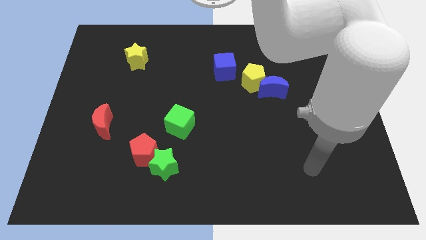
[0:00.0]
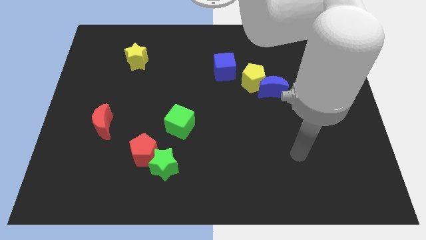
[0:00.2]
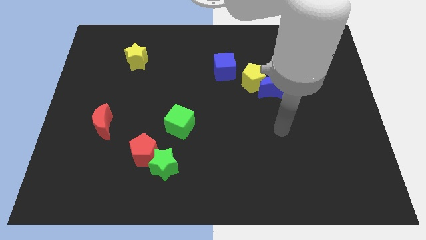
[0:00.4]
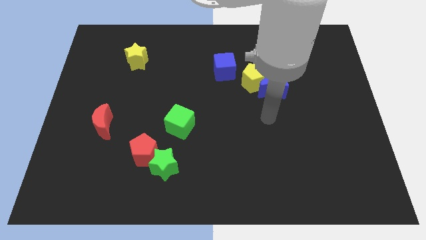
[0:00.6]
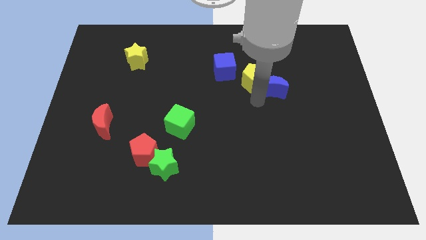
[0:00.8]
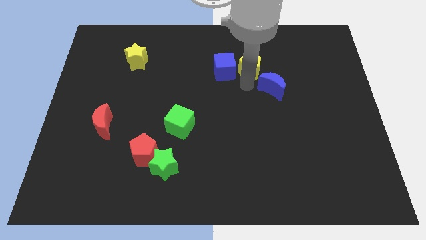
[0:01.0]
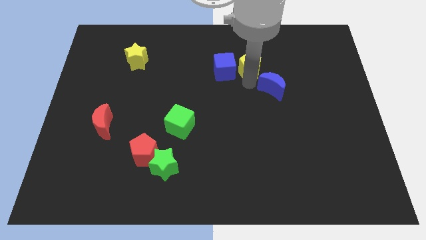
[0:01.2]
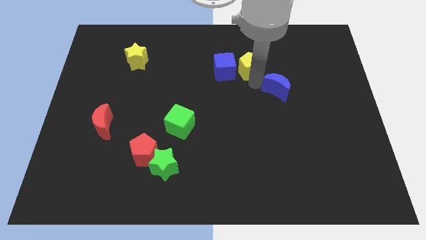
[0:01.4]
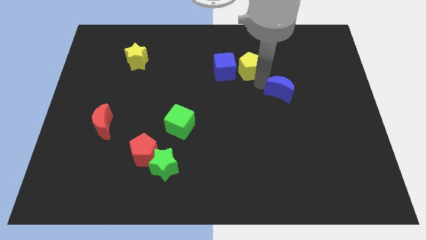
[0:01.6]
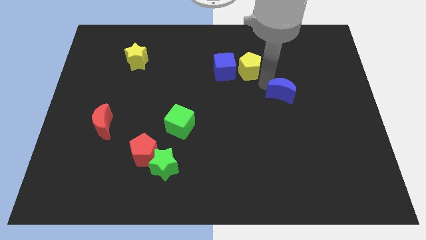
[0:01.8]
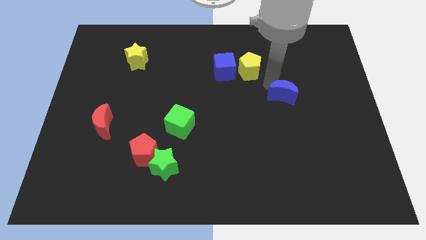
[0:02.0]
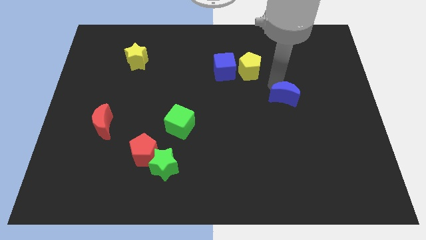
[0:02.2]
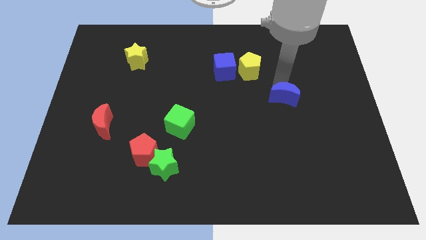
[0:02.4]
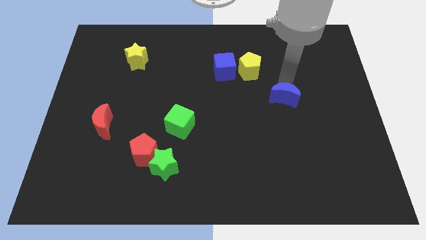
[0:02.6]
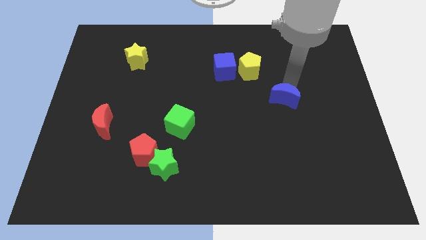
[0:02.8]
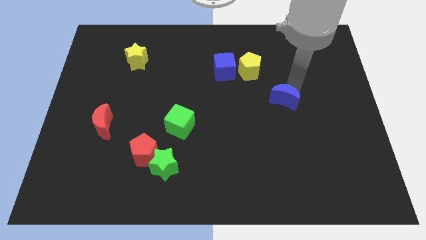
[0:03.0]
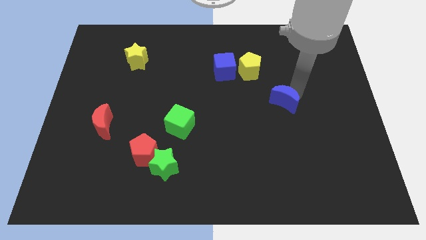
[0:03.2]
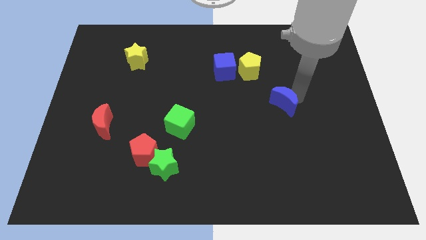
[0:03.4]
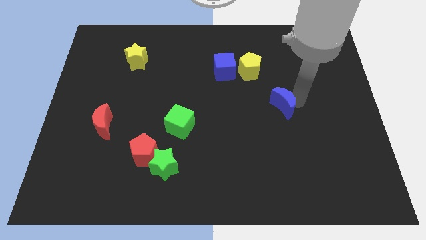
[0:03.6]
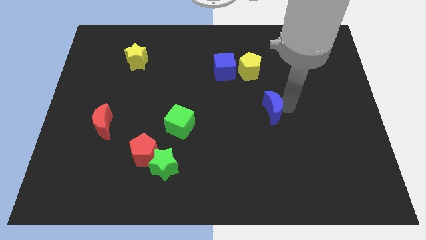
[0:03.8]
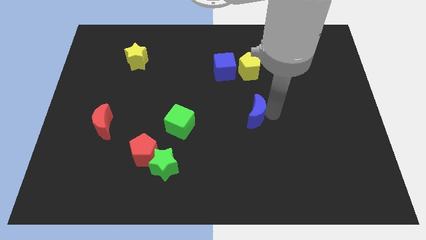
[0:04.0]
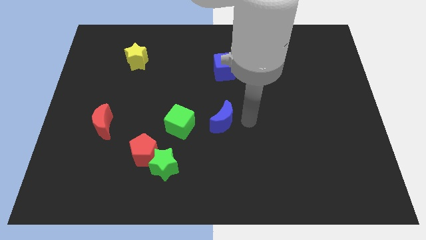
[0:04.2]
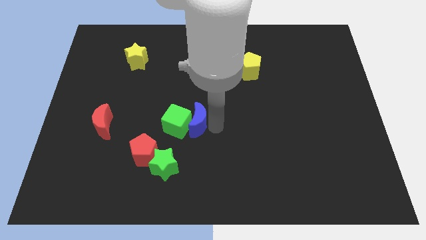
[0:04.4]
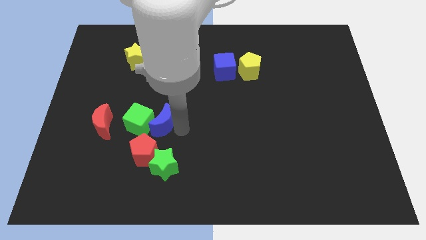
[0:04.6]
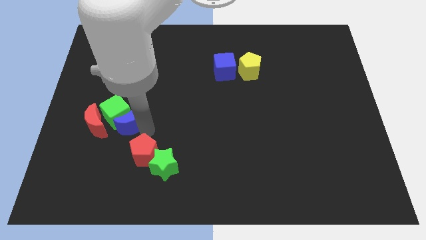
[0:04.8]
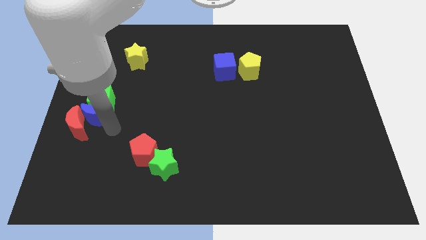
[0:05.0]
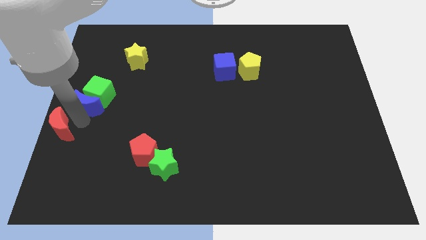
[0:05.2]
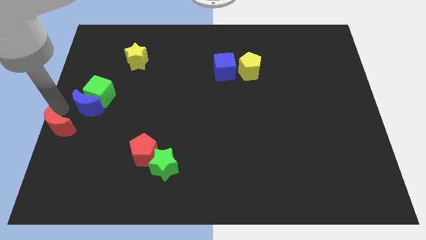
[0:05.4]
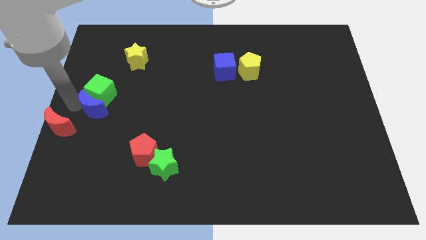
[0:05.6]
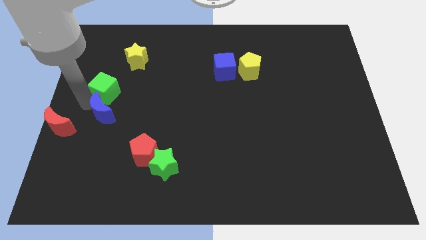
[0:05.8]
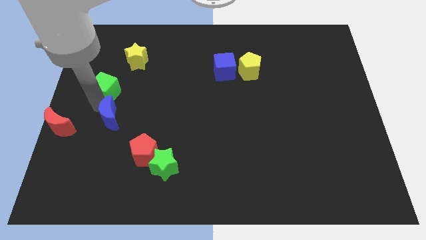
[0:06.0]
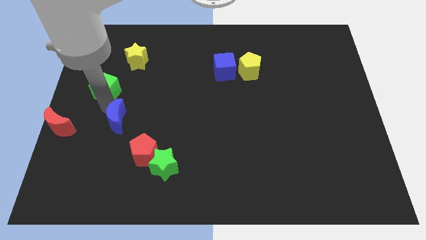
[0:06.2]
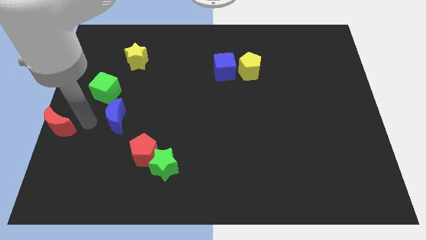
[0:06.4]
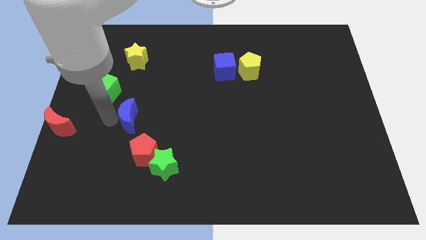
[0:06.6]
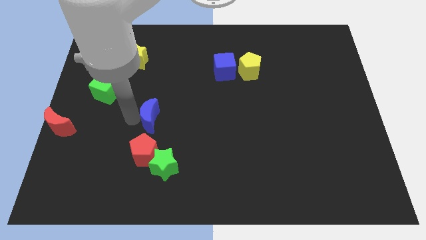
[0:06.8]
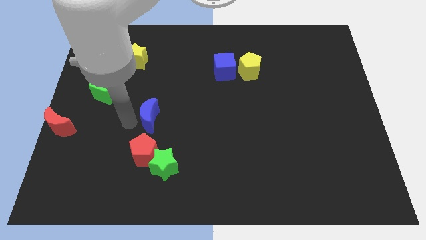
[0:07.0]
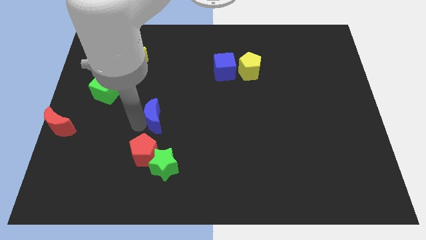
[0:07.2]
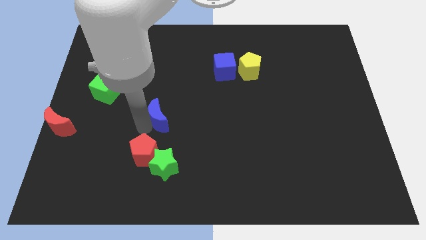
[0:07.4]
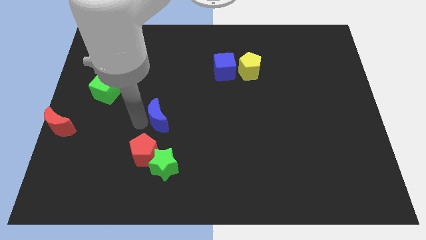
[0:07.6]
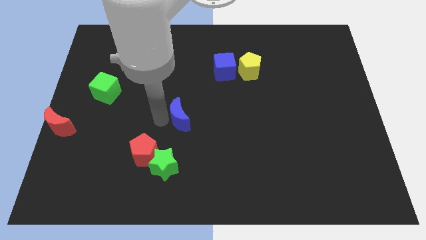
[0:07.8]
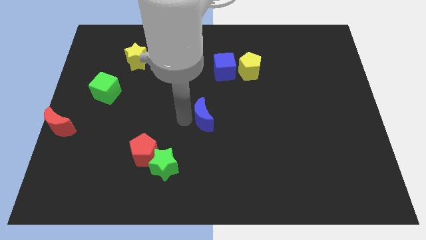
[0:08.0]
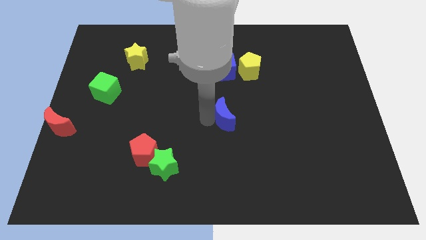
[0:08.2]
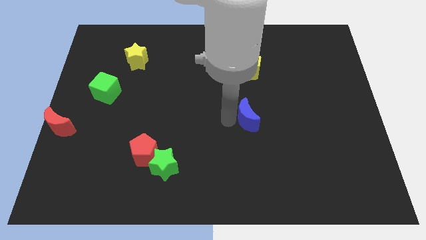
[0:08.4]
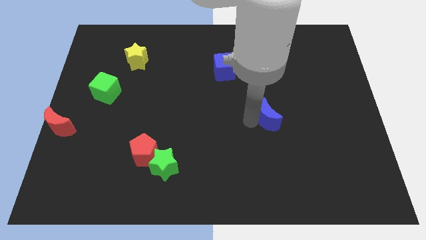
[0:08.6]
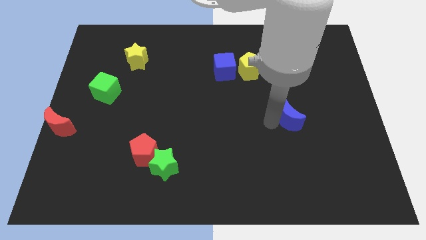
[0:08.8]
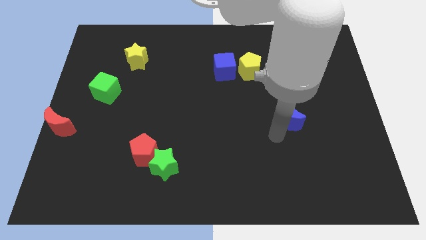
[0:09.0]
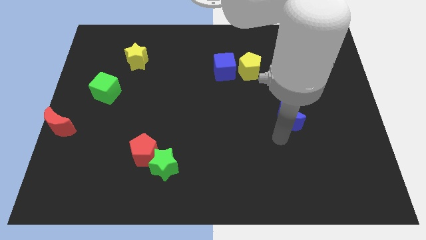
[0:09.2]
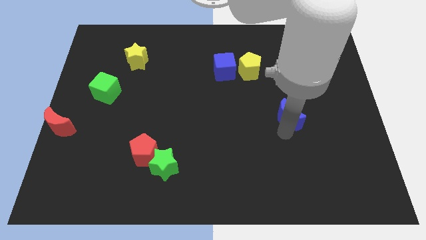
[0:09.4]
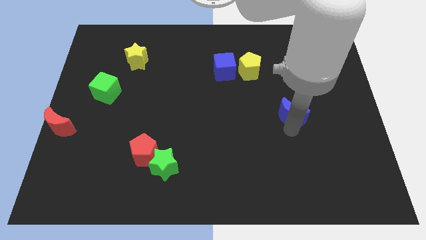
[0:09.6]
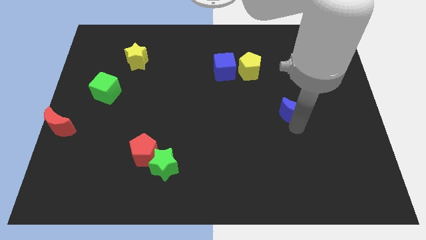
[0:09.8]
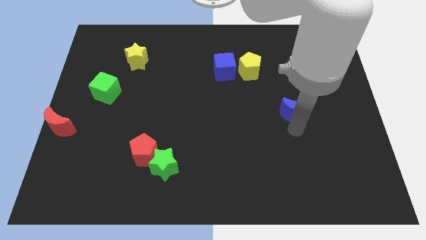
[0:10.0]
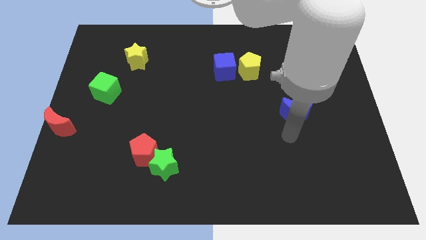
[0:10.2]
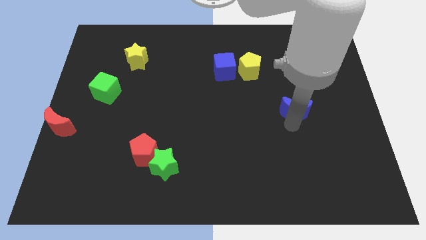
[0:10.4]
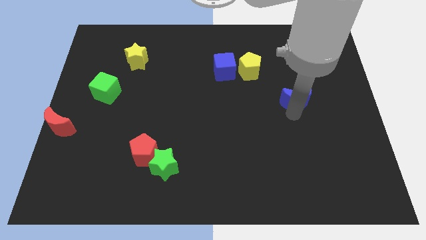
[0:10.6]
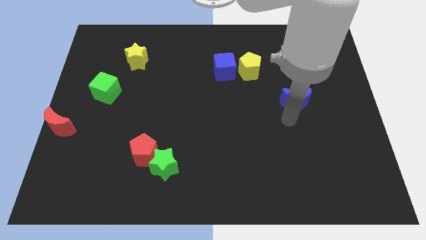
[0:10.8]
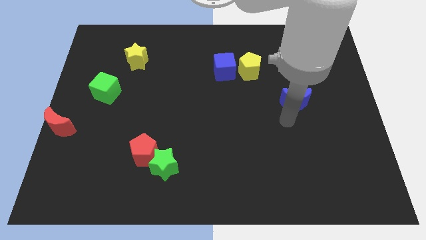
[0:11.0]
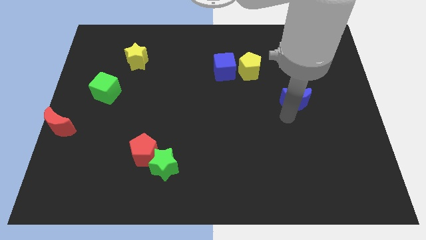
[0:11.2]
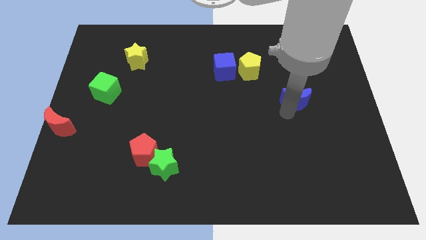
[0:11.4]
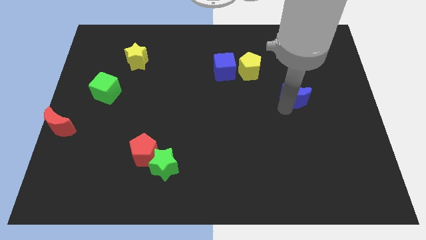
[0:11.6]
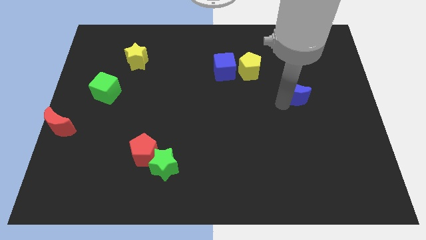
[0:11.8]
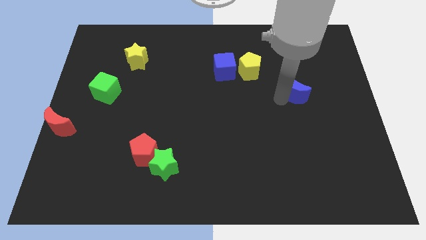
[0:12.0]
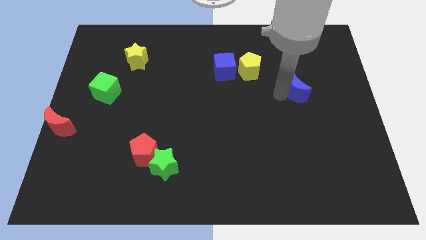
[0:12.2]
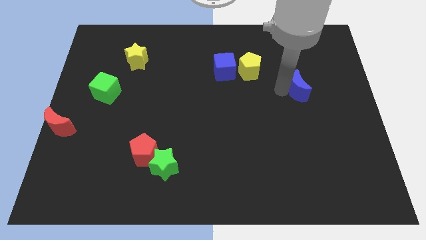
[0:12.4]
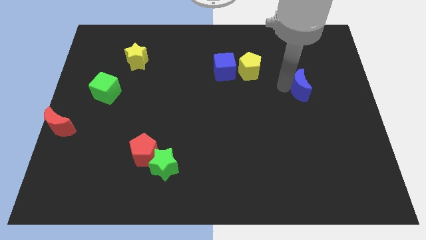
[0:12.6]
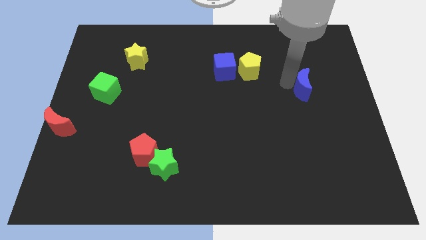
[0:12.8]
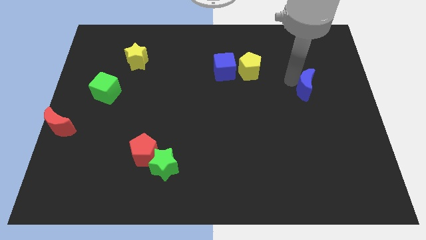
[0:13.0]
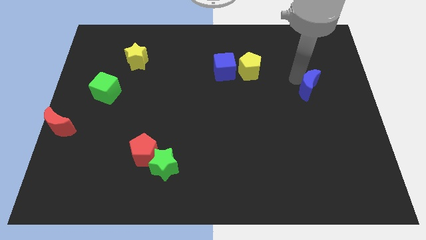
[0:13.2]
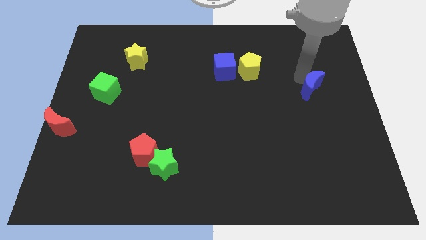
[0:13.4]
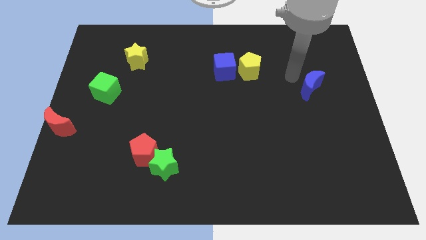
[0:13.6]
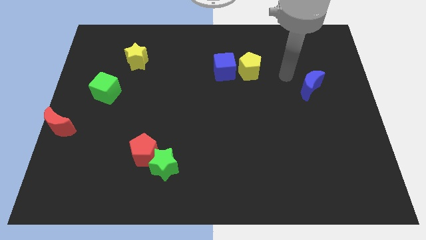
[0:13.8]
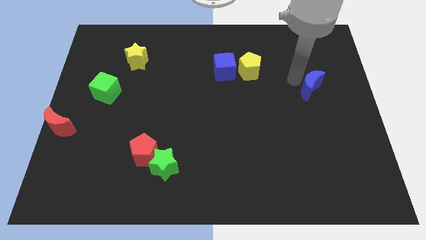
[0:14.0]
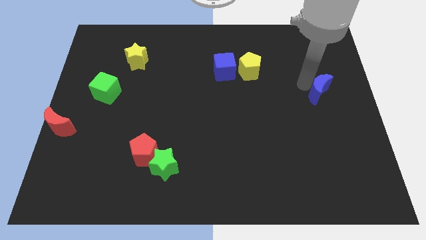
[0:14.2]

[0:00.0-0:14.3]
move the blue moon to the center right

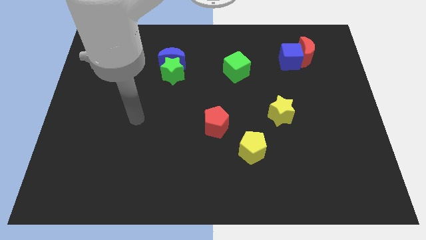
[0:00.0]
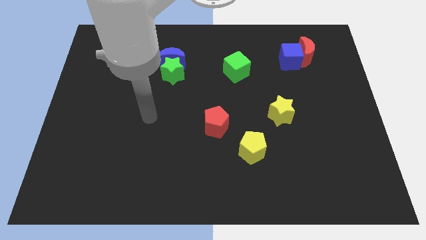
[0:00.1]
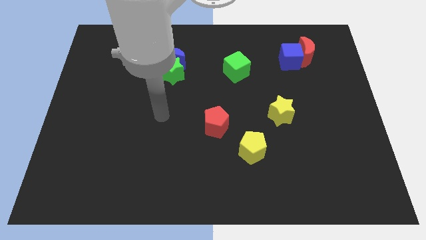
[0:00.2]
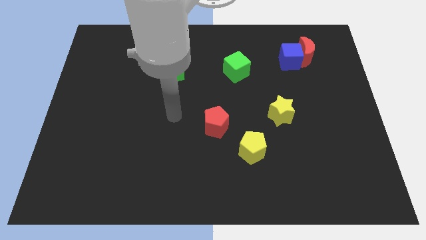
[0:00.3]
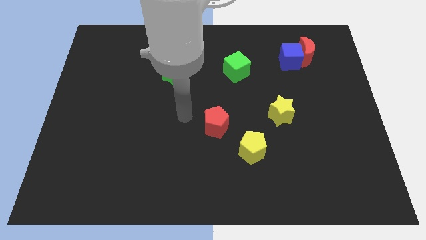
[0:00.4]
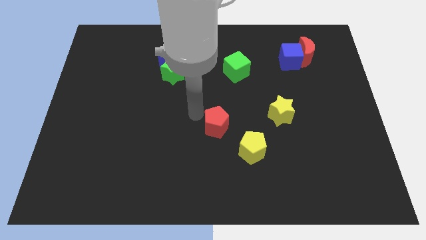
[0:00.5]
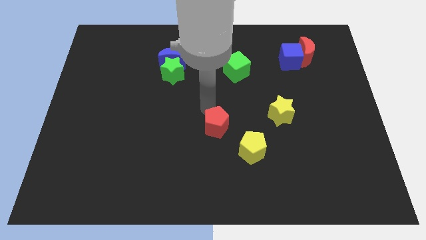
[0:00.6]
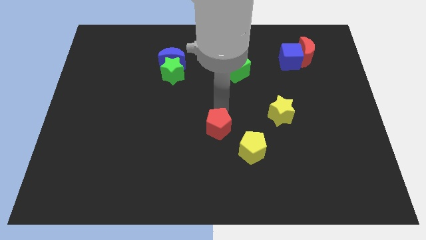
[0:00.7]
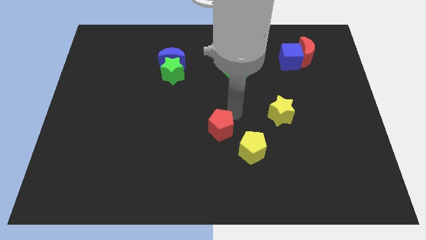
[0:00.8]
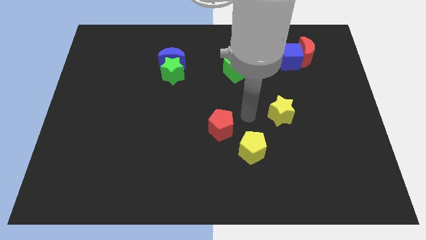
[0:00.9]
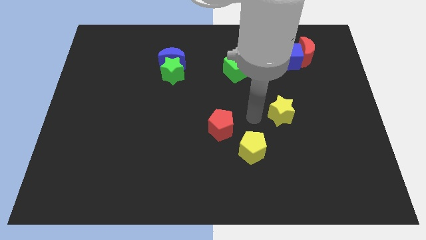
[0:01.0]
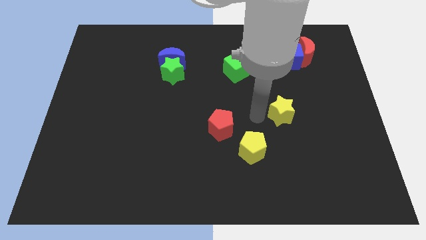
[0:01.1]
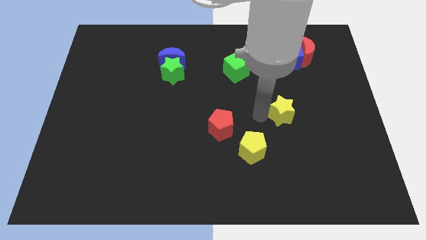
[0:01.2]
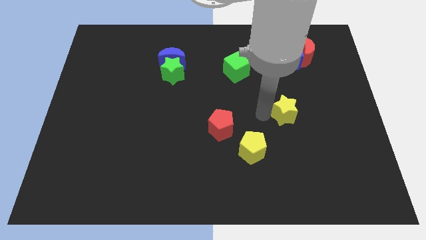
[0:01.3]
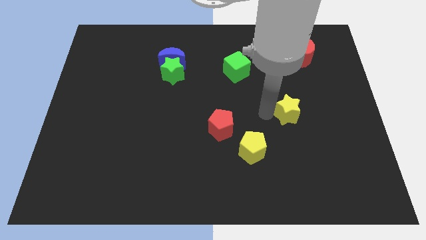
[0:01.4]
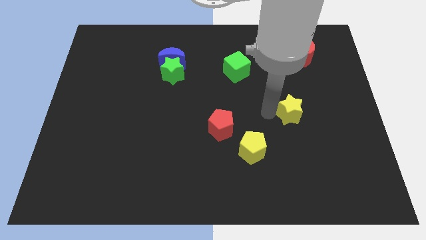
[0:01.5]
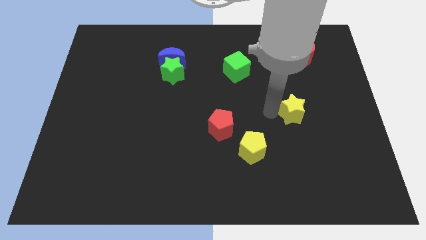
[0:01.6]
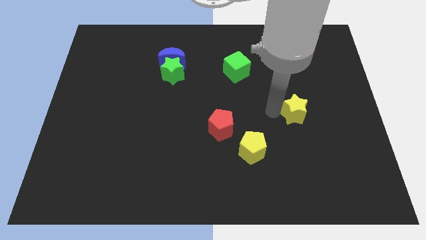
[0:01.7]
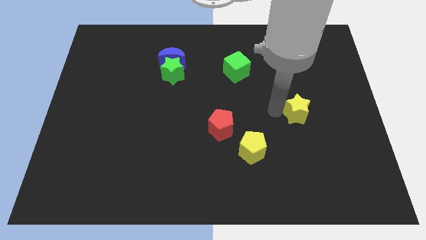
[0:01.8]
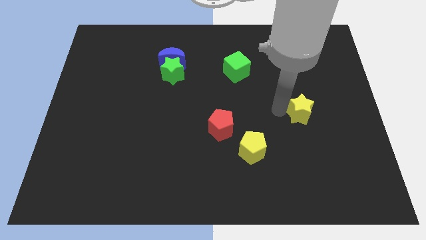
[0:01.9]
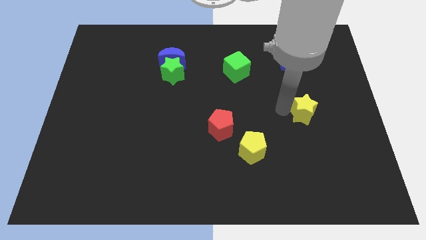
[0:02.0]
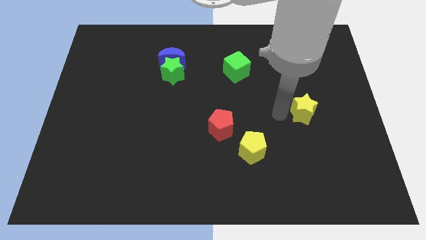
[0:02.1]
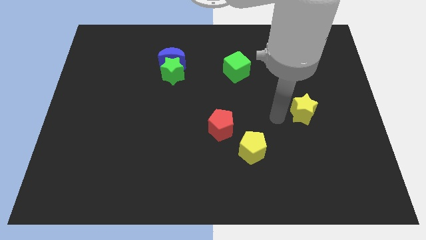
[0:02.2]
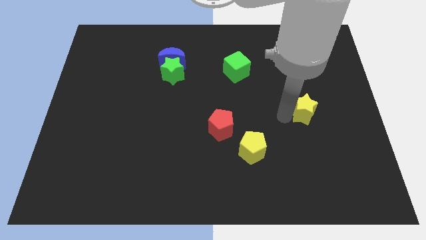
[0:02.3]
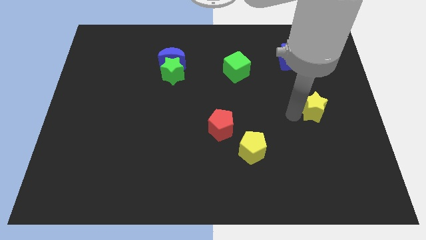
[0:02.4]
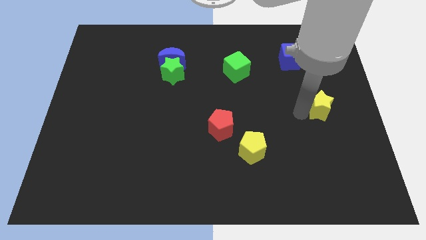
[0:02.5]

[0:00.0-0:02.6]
slide the yellow star to the center right
